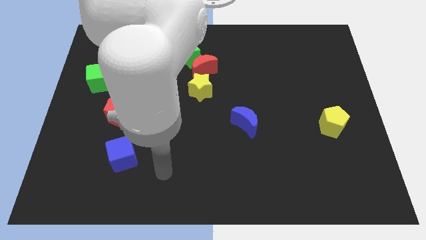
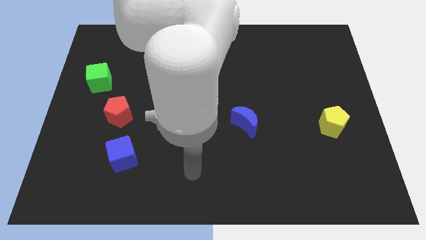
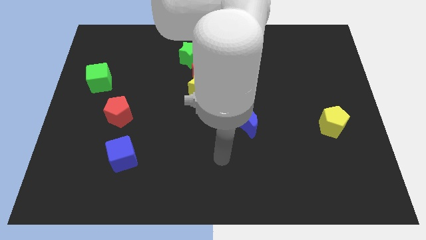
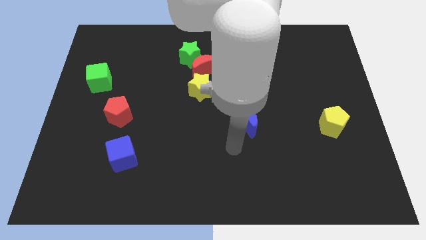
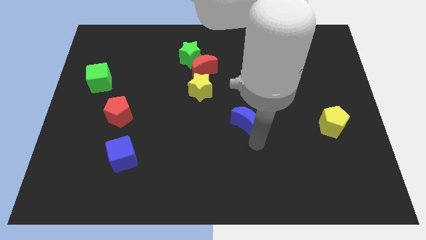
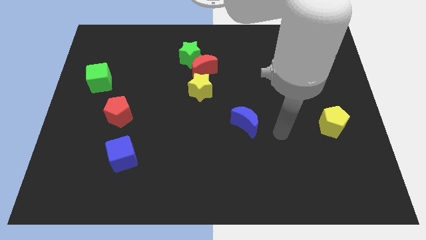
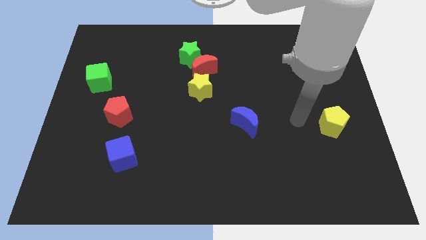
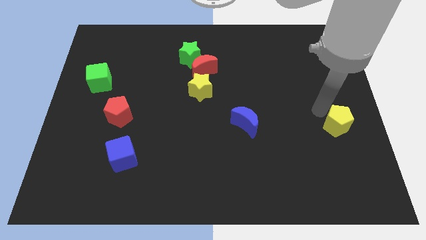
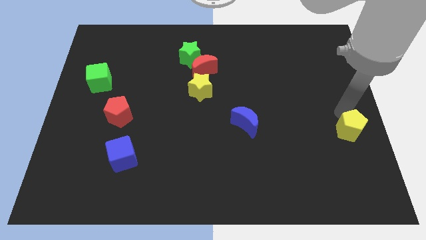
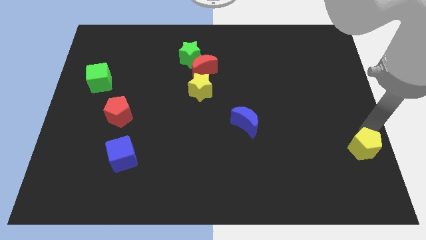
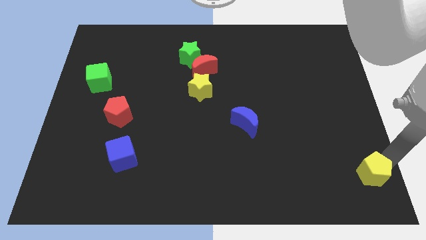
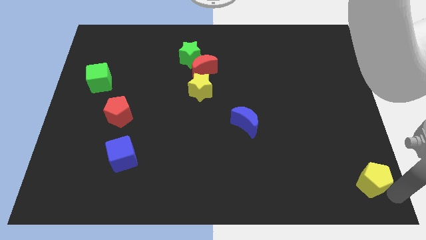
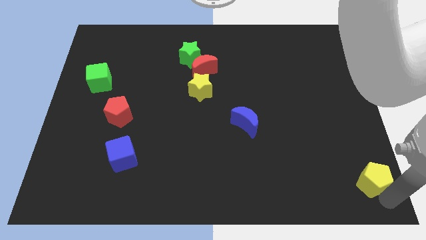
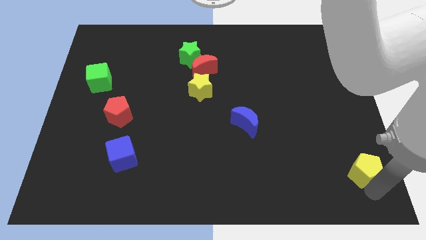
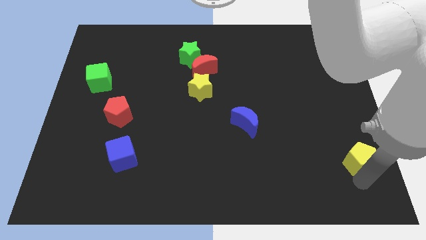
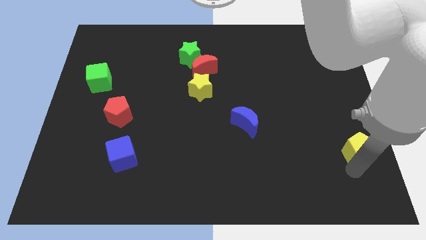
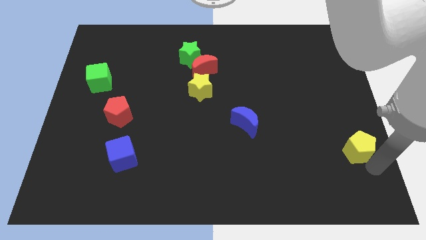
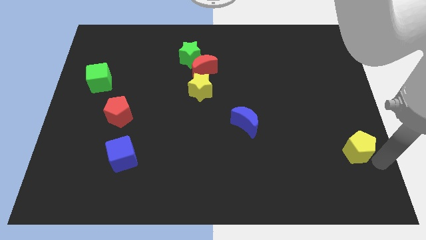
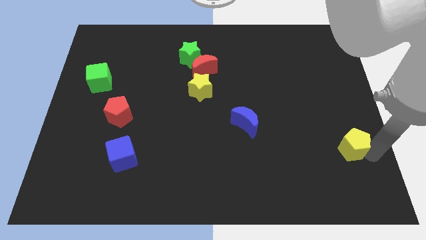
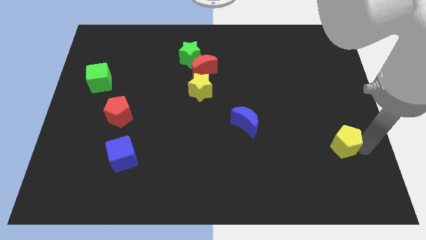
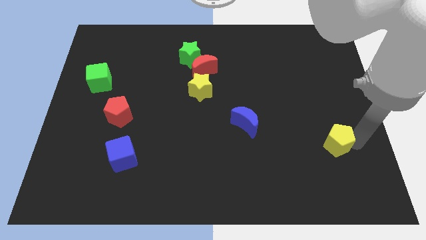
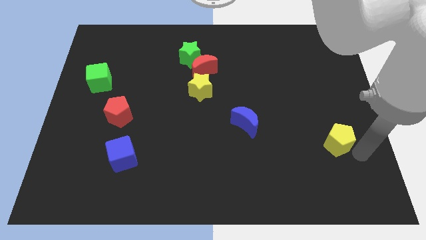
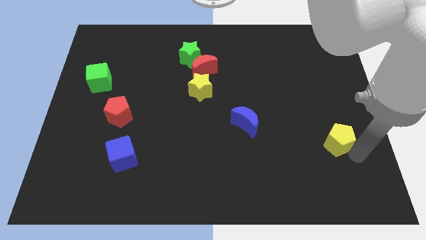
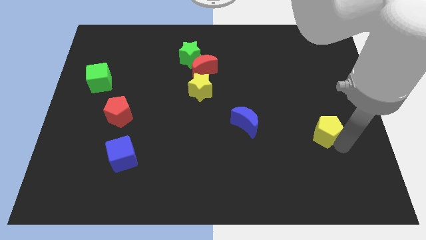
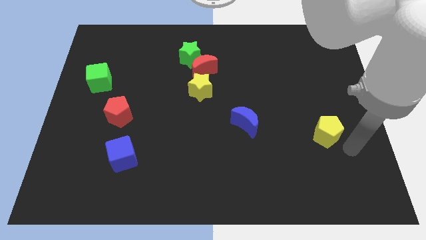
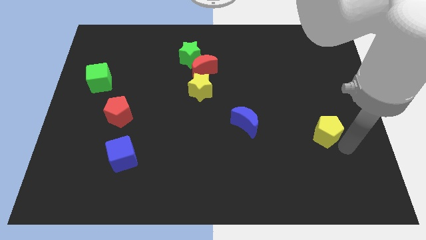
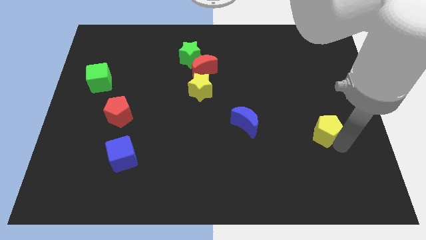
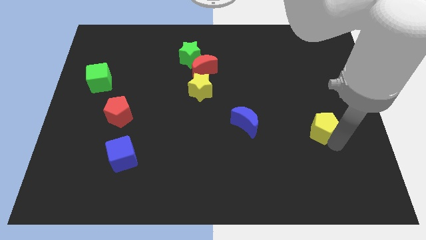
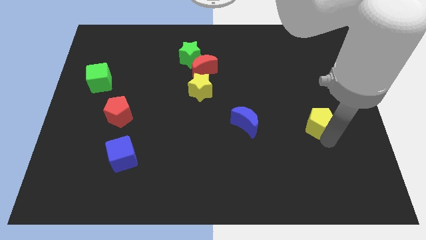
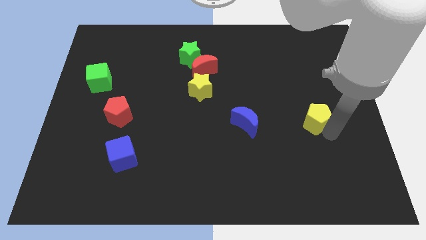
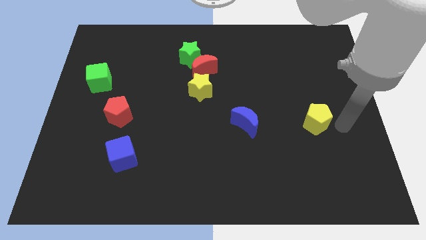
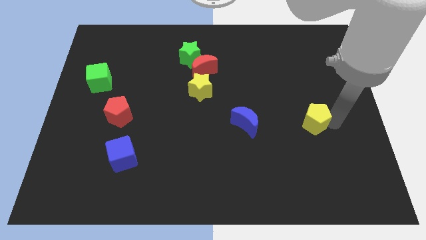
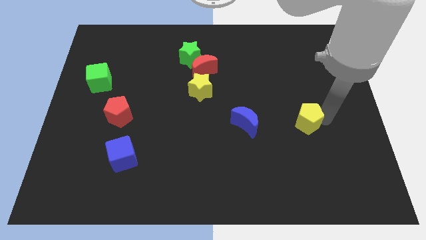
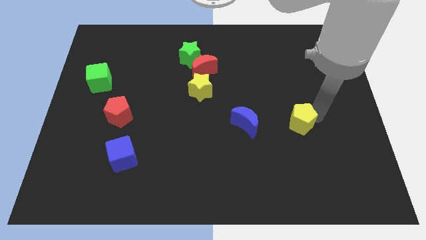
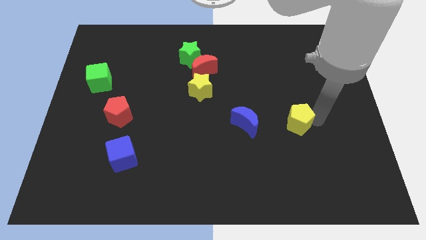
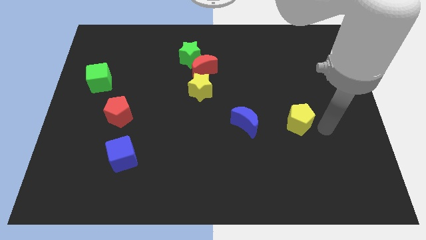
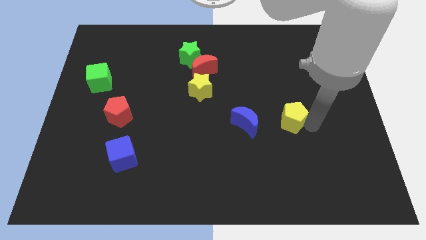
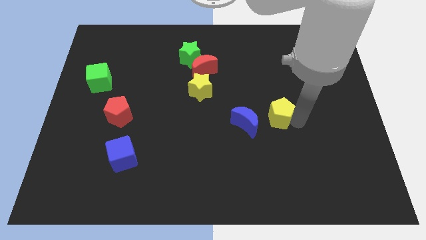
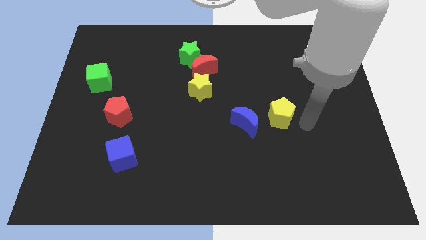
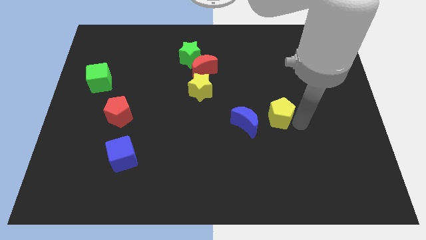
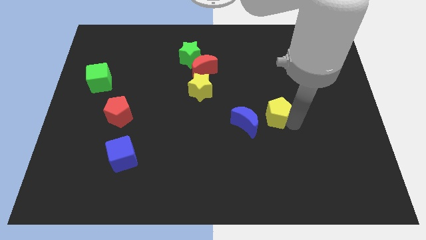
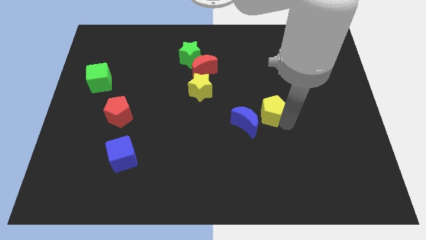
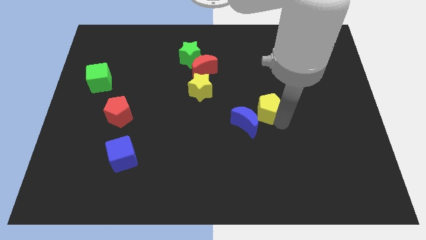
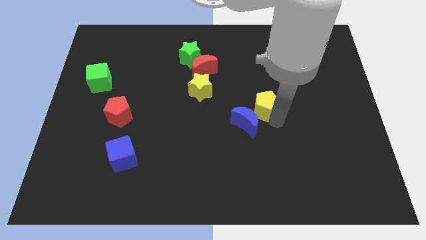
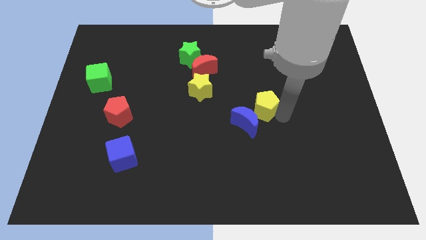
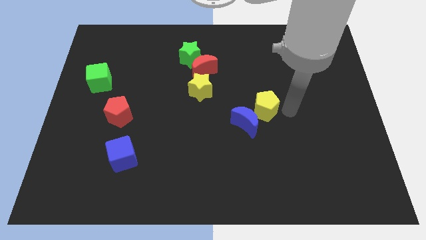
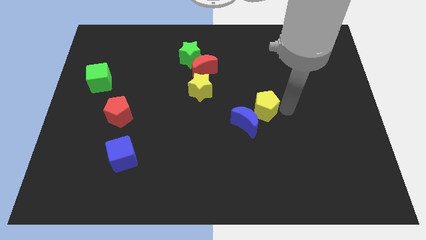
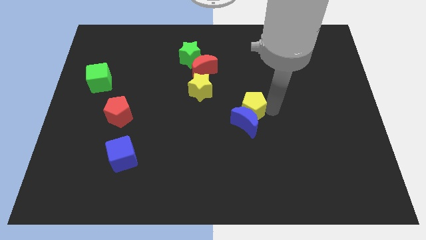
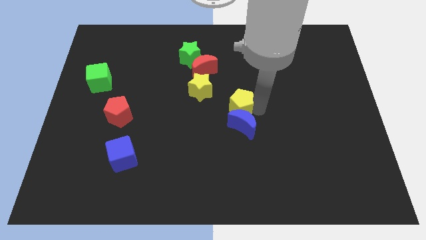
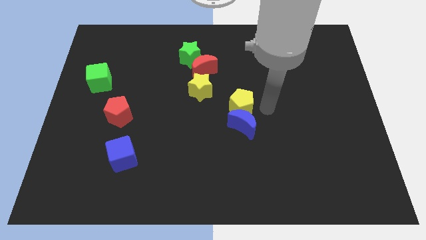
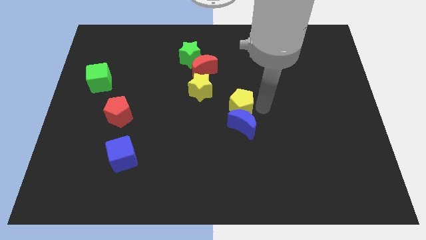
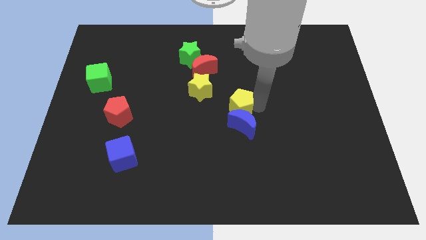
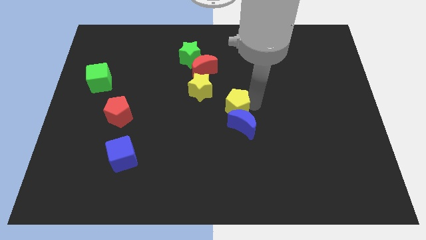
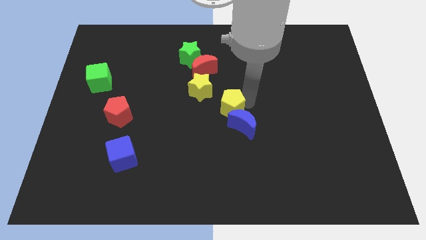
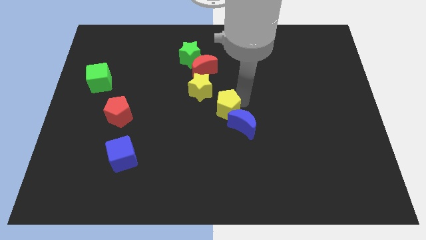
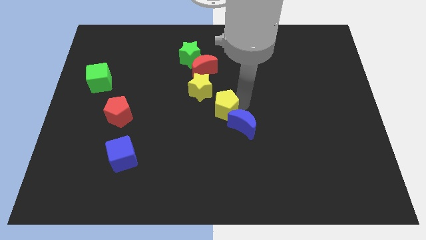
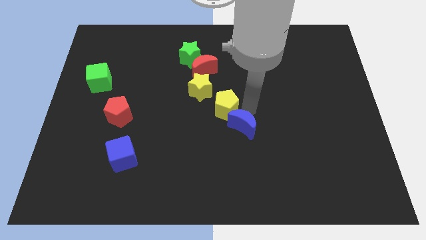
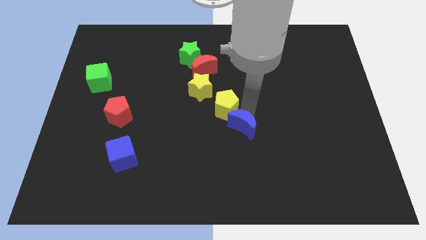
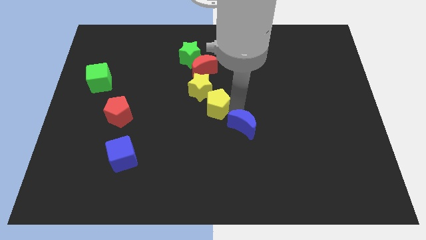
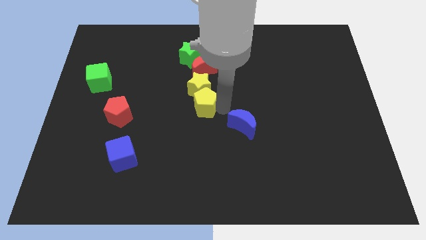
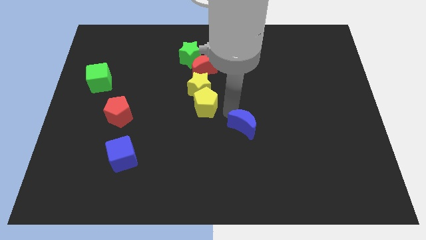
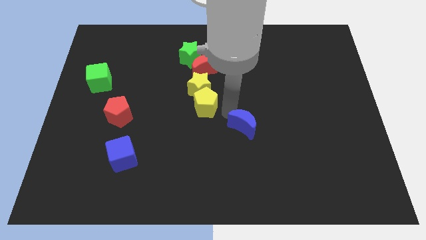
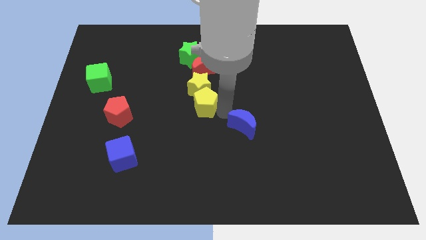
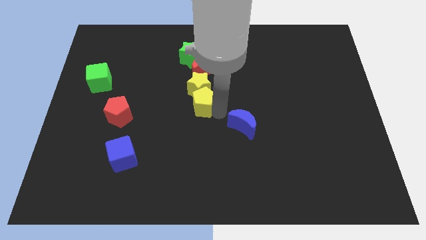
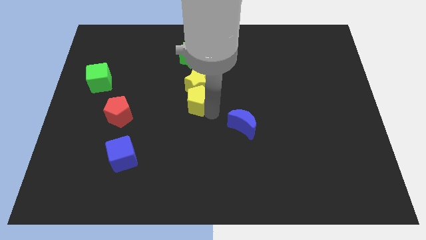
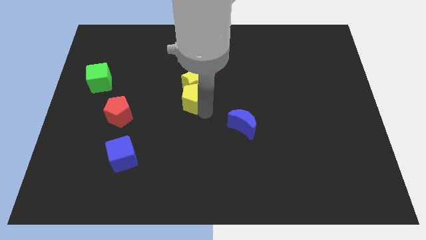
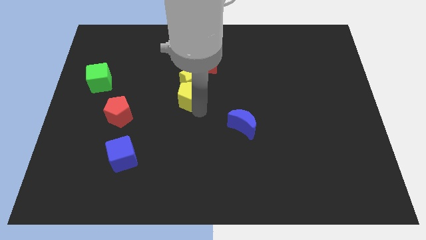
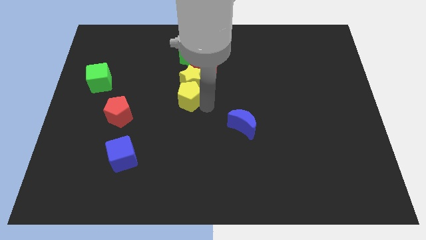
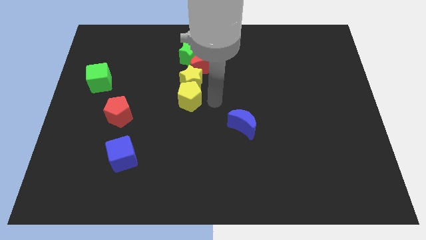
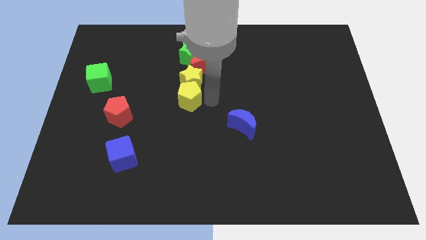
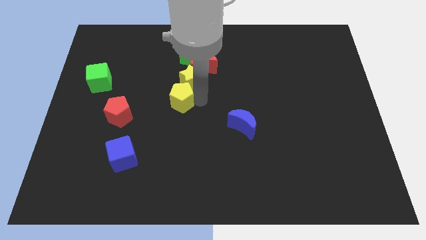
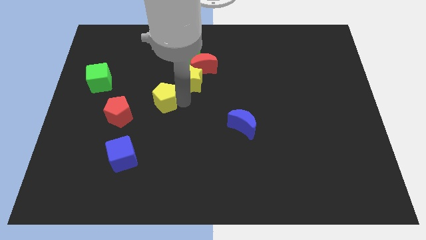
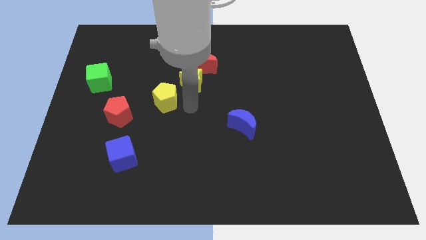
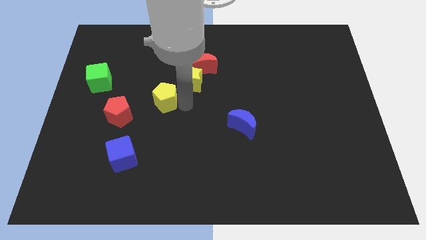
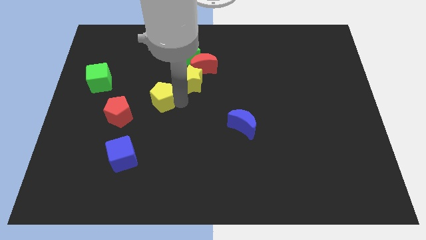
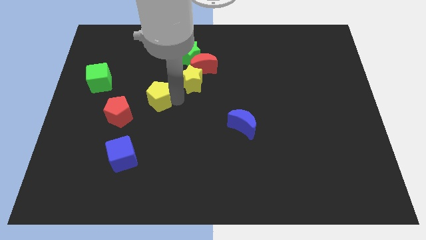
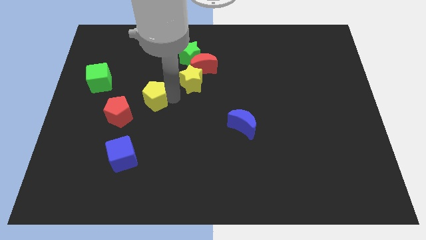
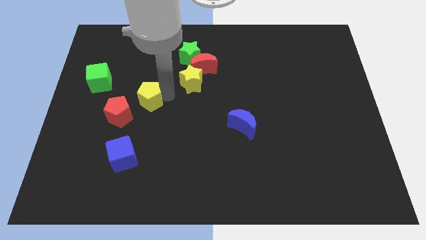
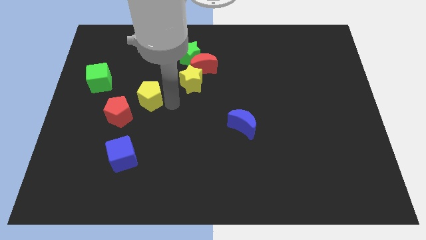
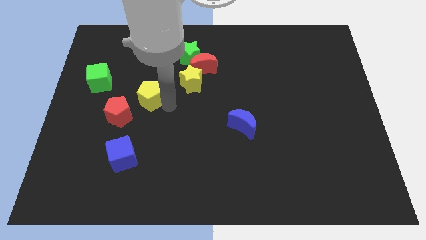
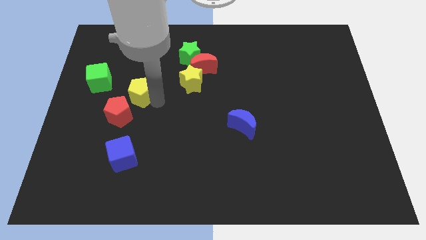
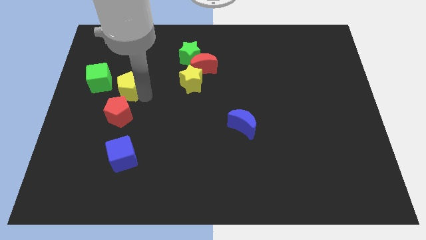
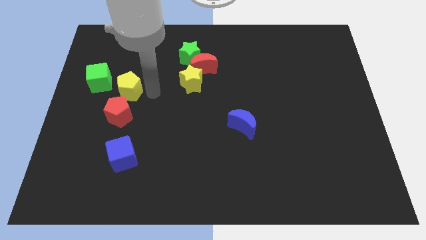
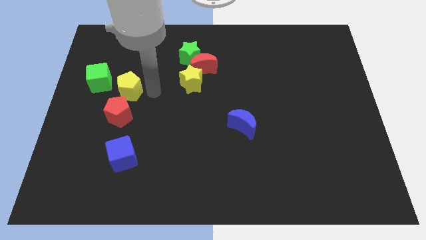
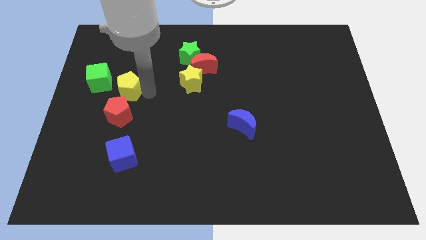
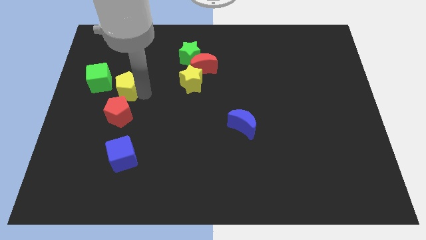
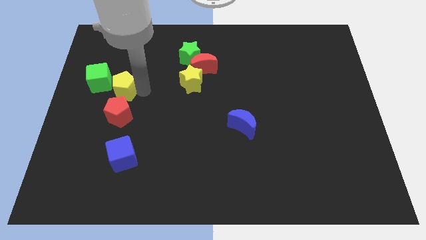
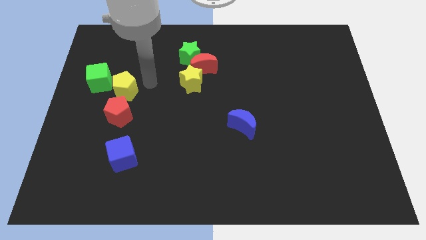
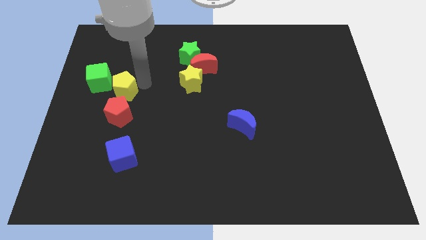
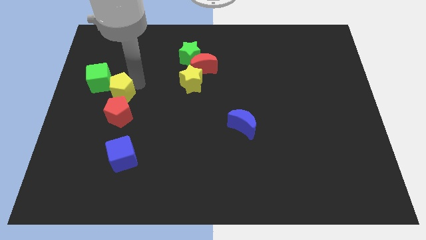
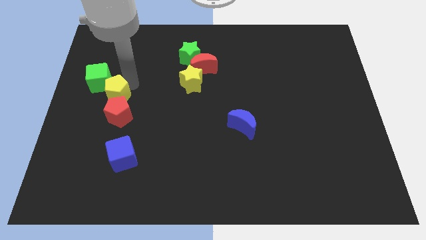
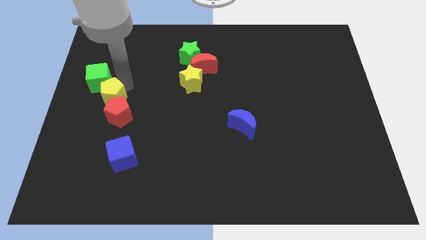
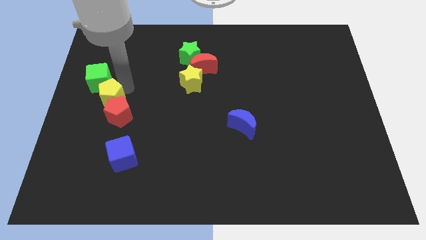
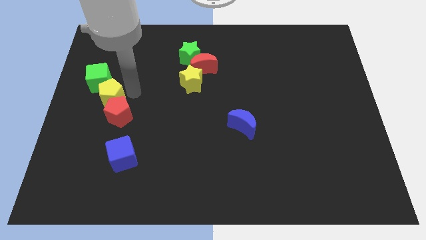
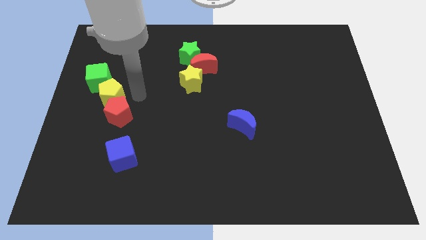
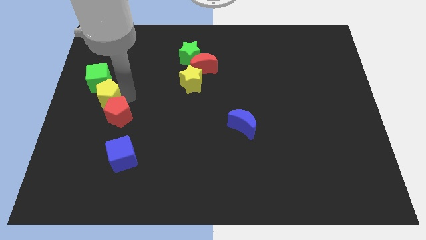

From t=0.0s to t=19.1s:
move the yellow pentagon to the left side of the board
